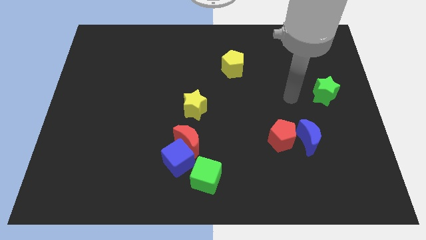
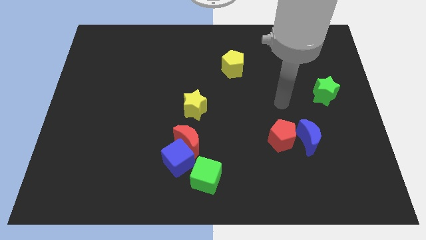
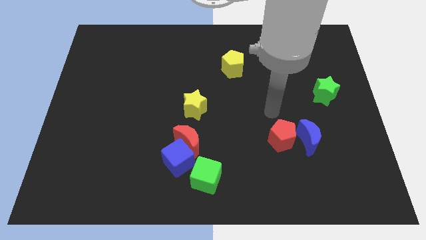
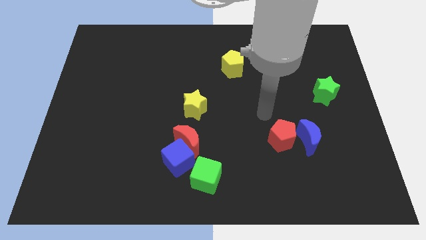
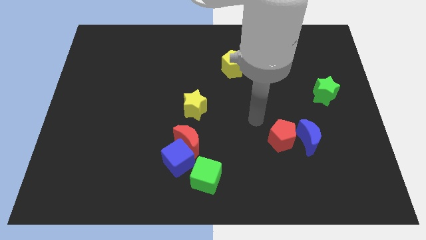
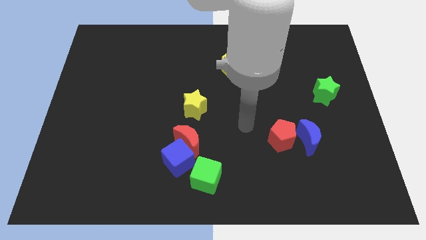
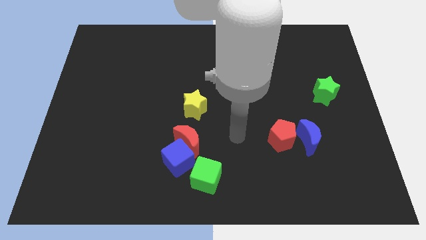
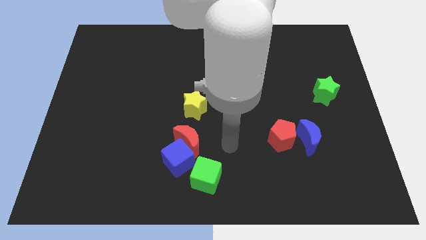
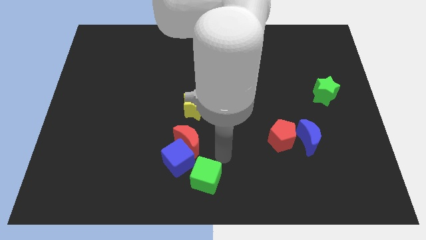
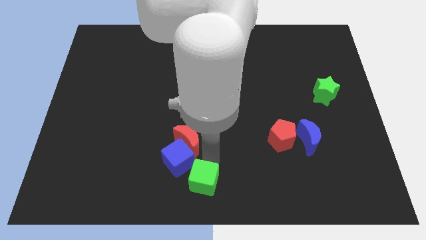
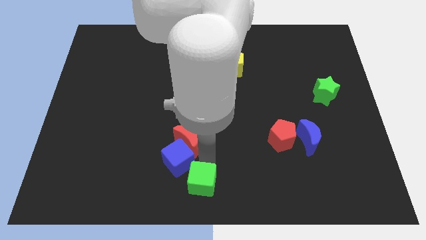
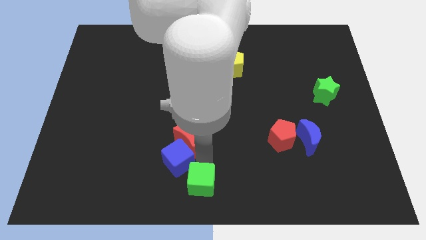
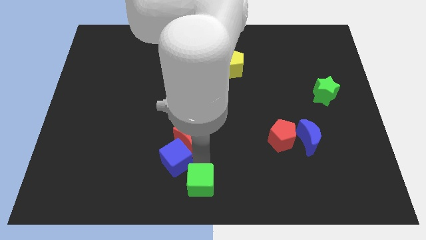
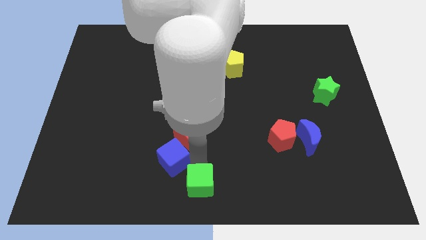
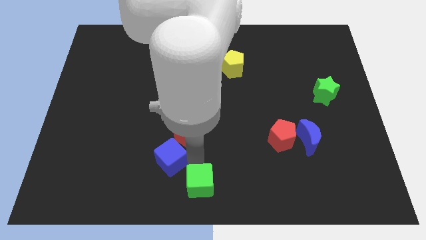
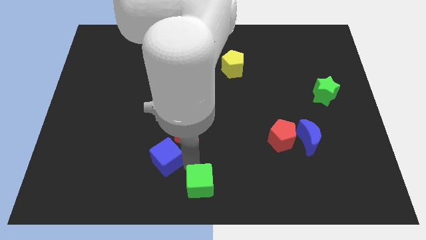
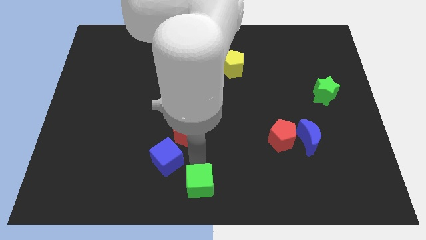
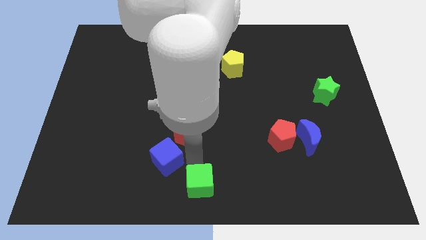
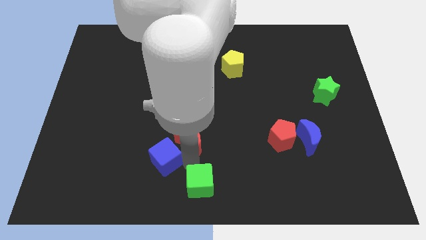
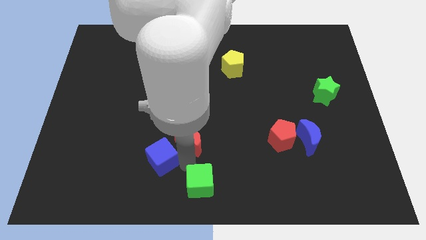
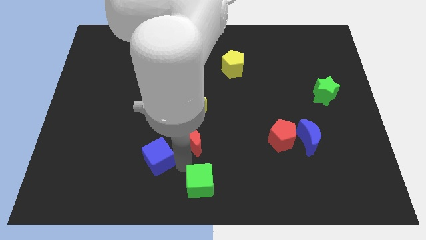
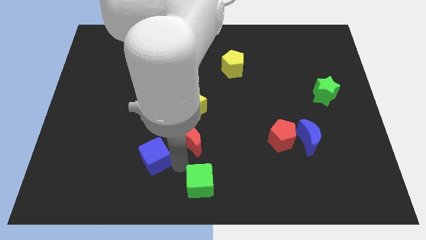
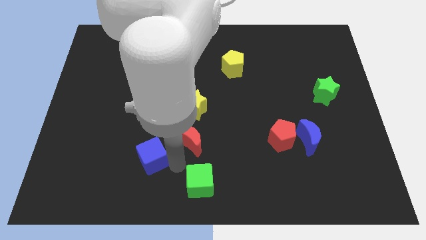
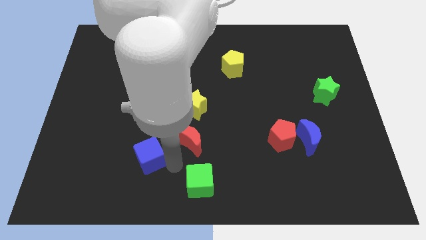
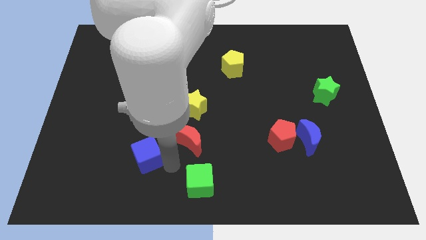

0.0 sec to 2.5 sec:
move the blue cube away from the red moon and green cube

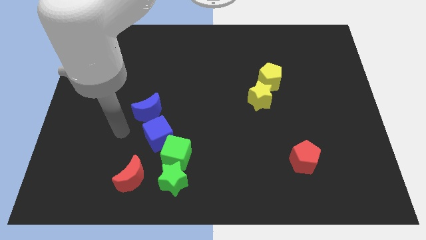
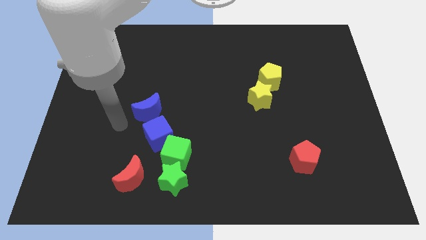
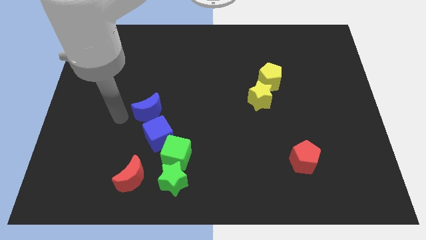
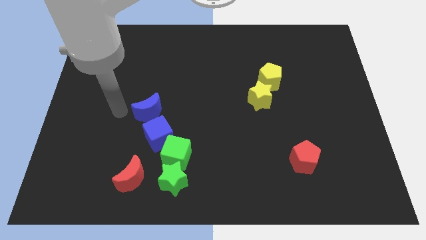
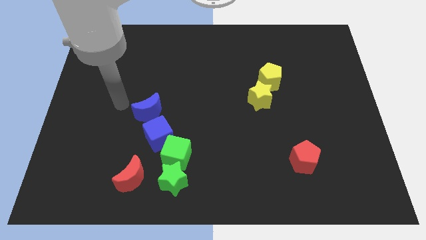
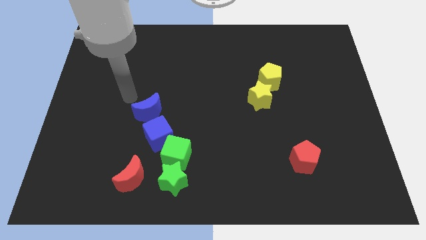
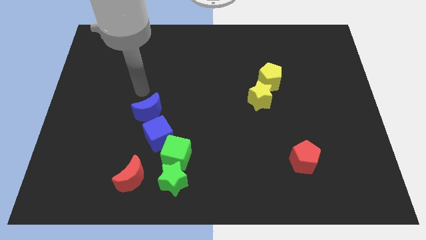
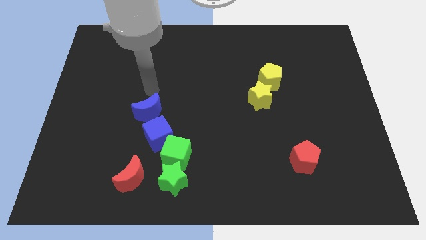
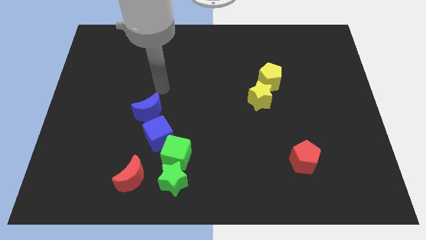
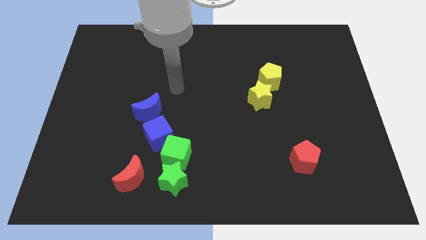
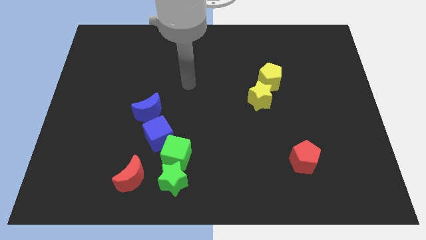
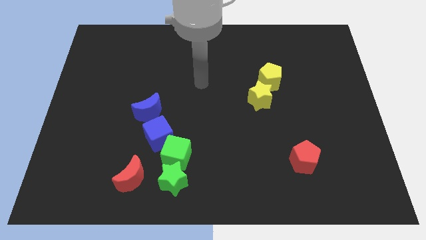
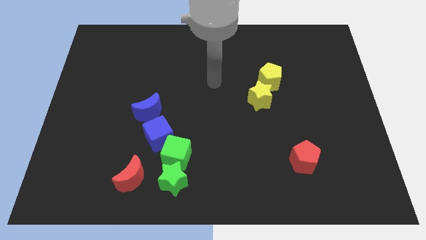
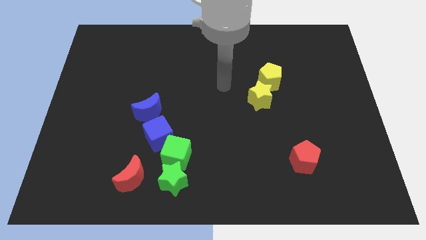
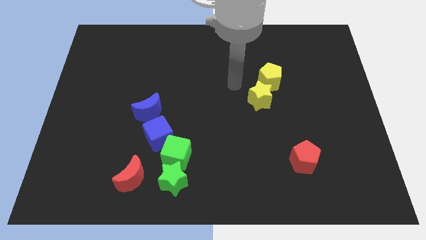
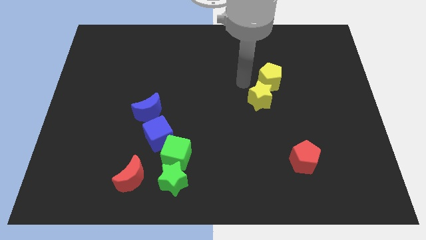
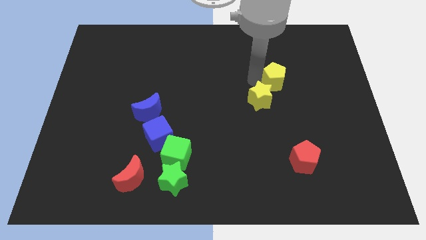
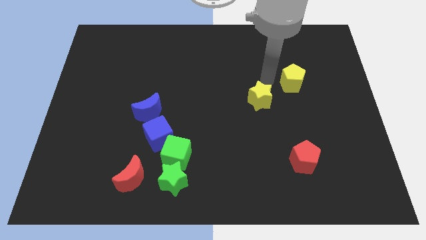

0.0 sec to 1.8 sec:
separate the yellow star from the yellow pentagon

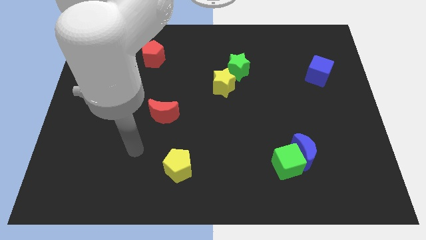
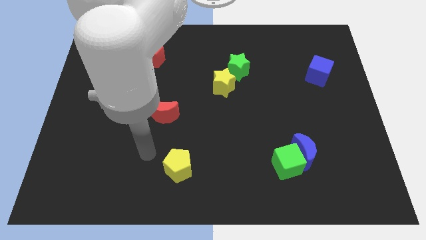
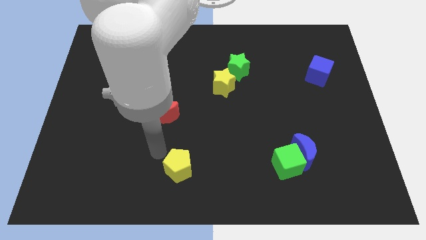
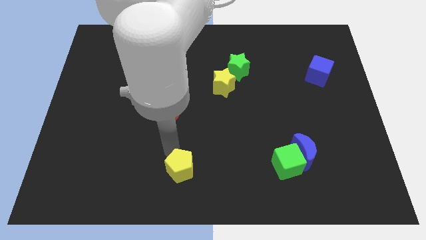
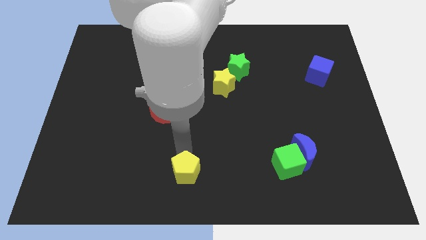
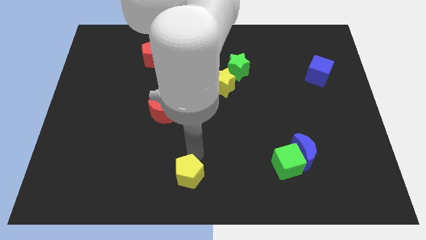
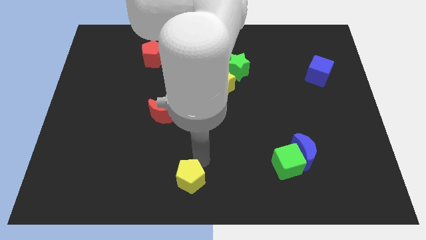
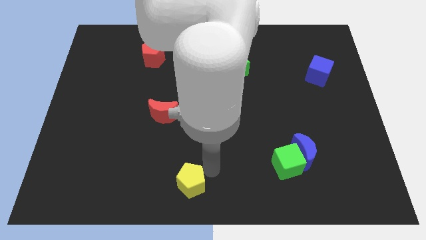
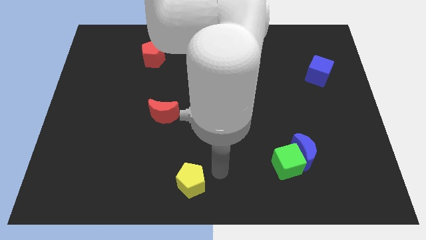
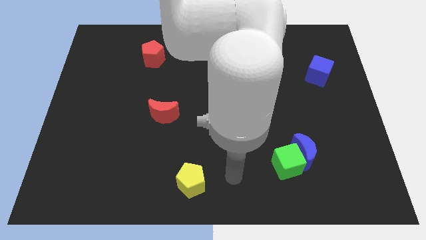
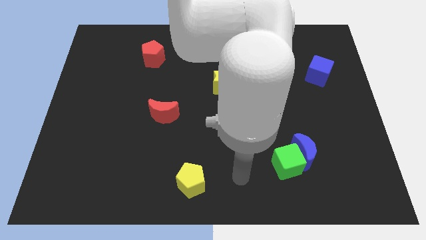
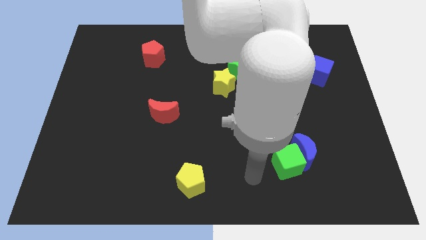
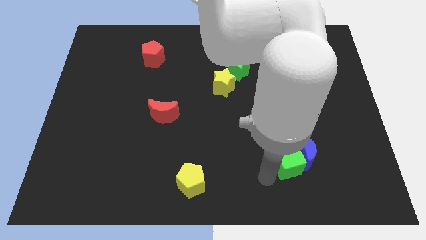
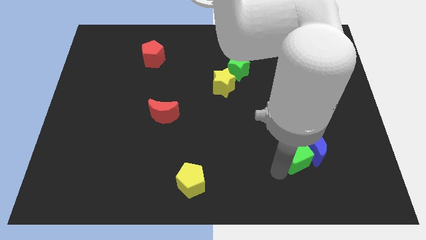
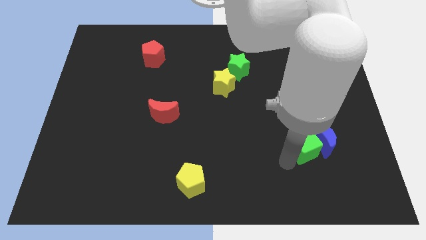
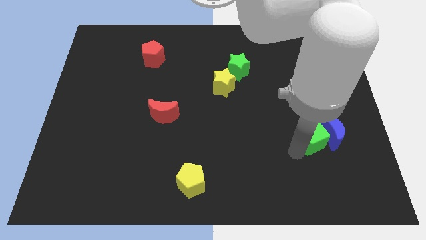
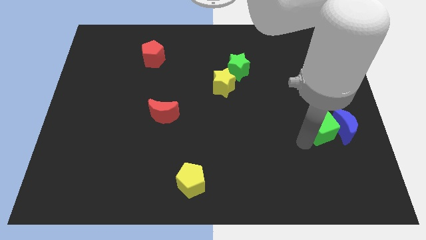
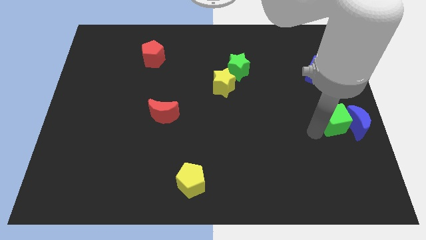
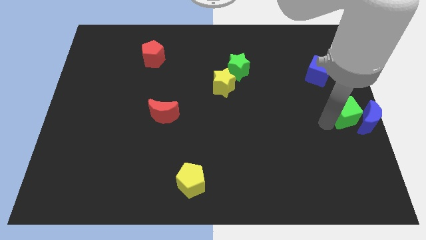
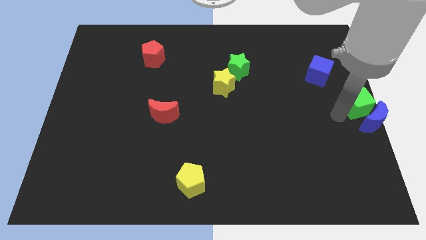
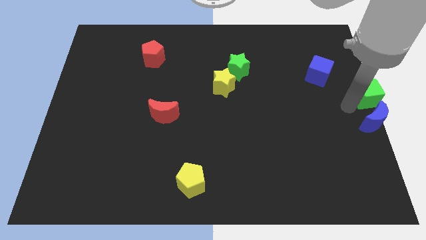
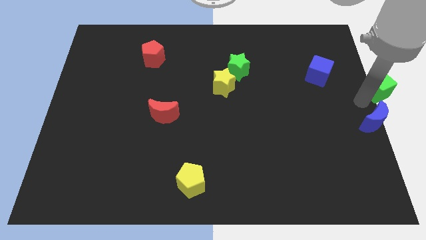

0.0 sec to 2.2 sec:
move the blue moon away from the green cube

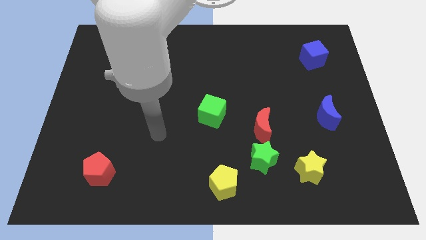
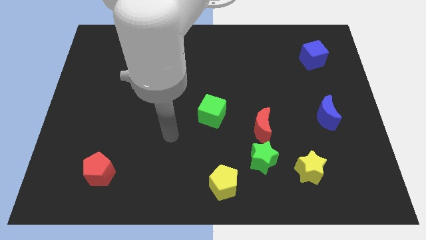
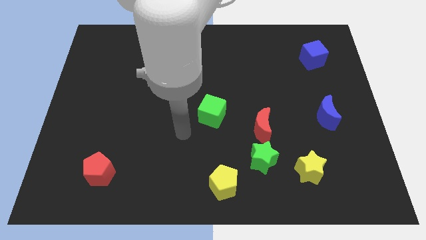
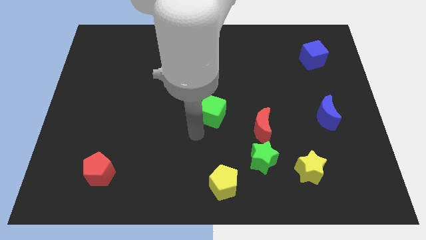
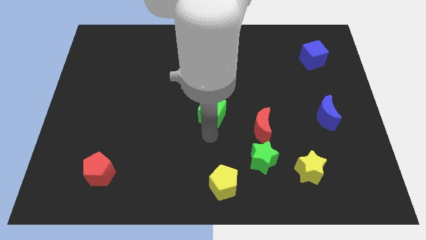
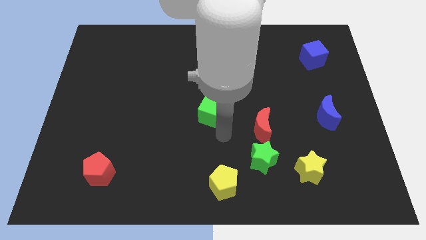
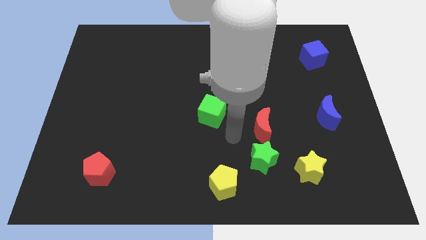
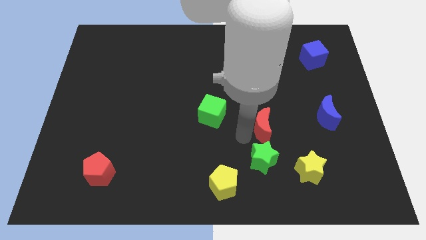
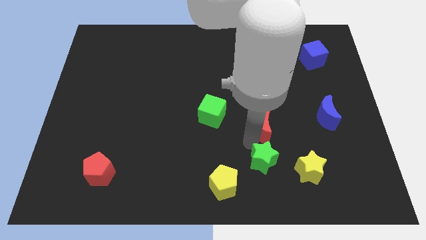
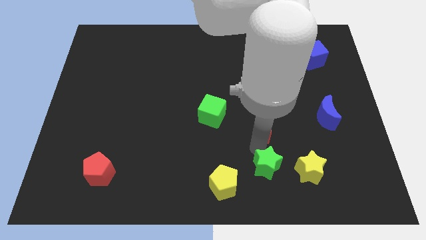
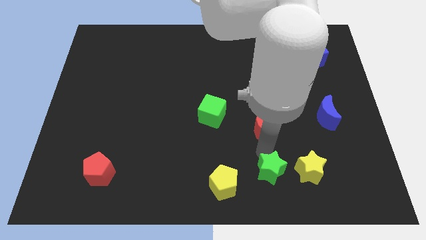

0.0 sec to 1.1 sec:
move the red moon away from the green star

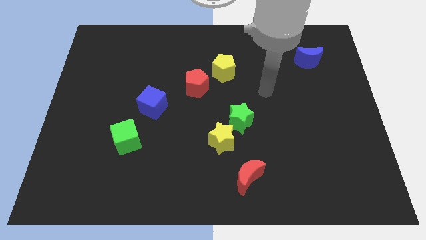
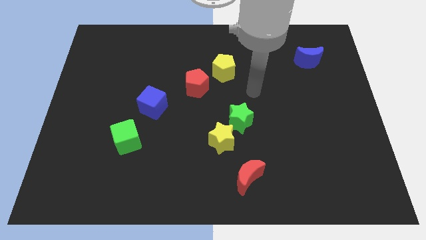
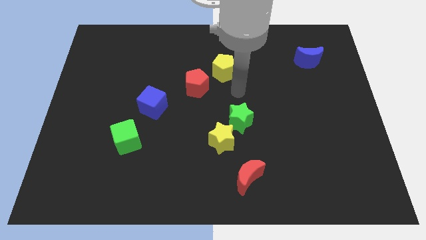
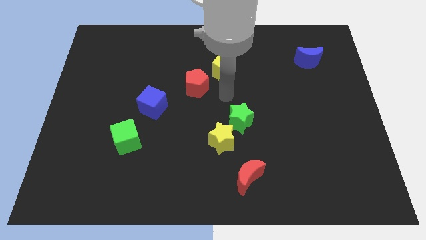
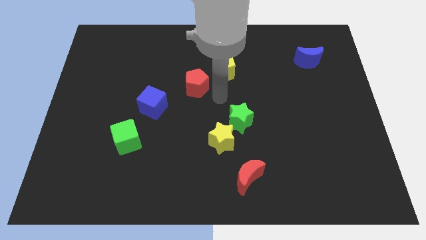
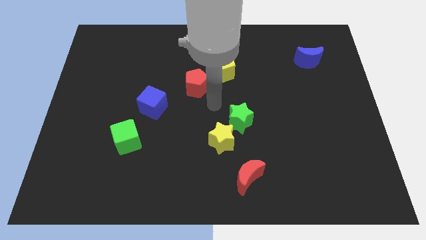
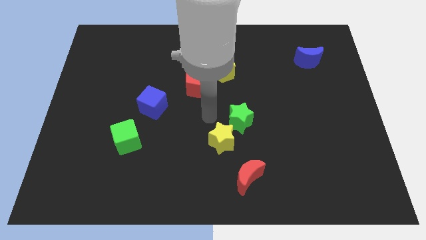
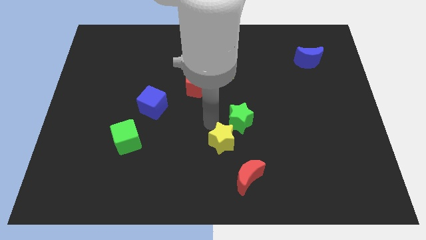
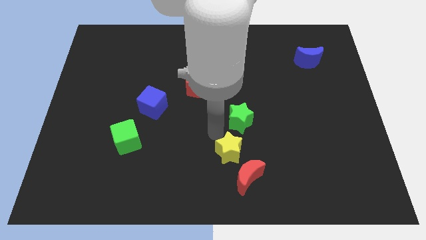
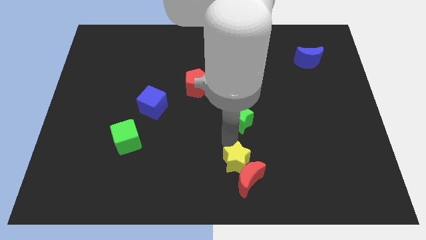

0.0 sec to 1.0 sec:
pull the green star apart from the yellow star

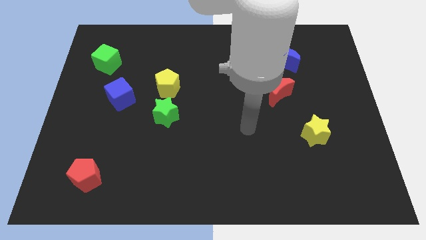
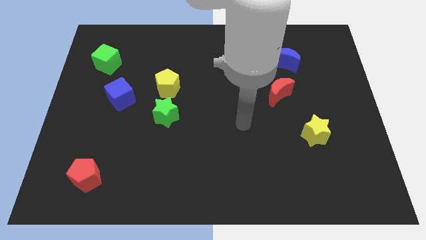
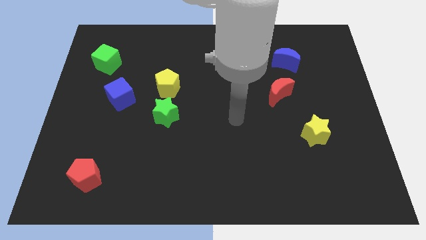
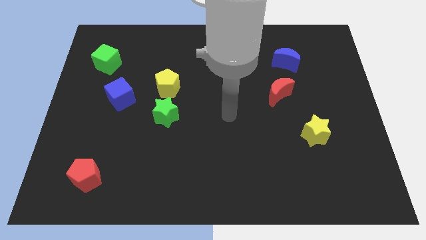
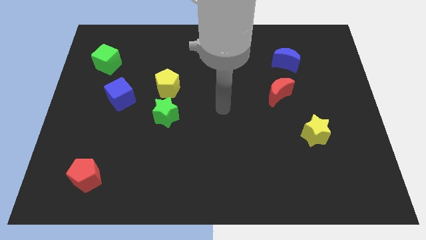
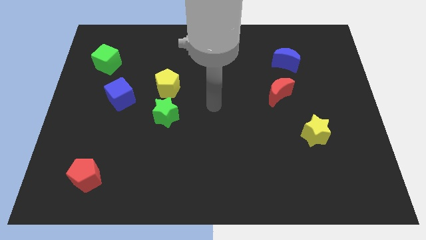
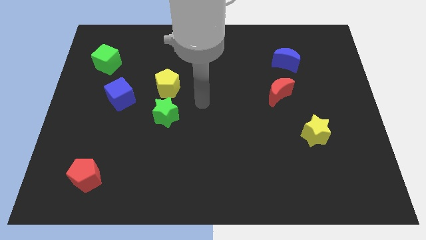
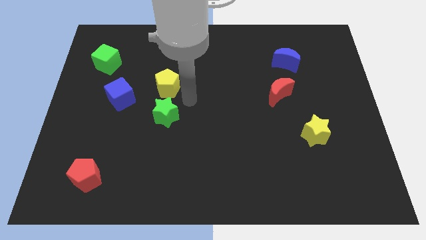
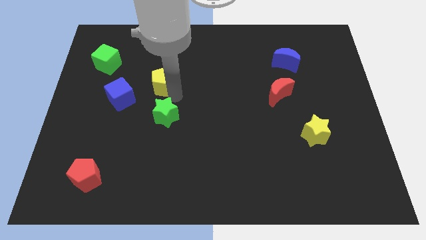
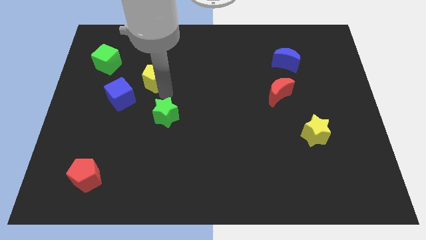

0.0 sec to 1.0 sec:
move the green star away from the yellow pentagon
